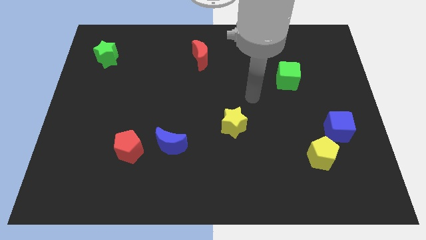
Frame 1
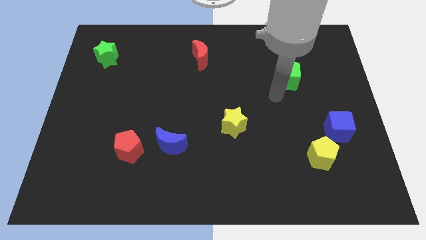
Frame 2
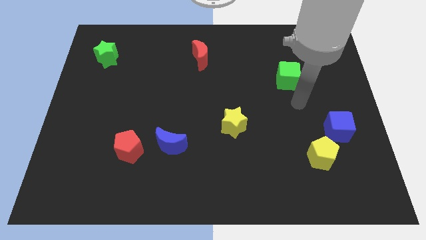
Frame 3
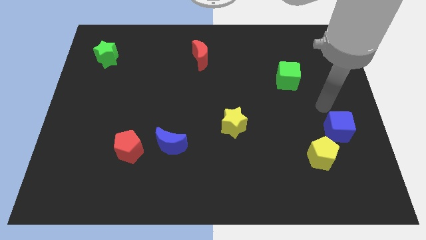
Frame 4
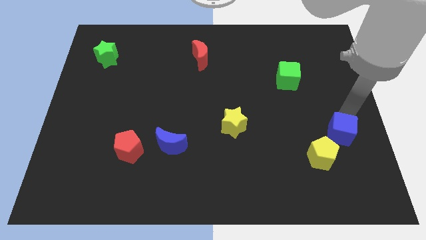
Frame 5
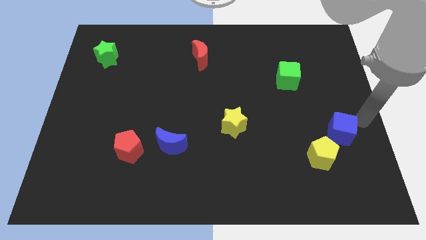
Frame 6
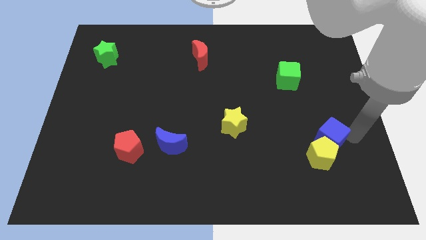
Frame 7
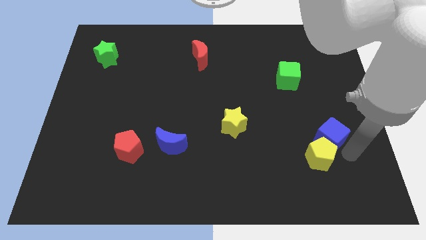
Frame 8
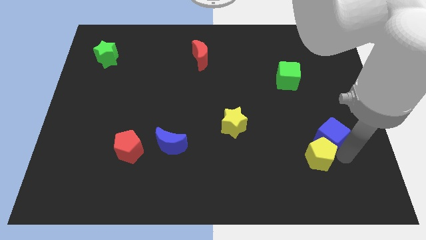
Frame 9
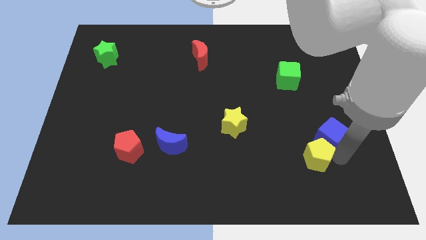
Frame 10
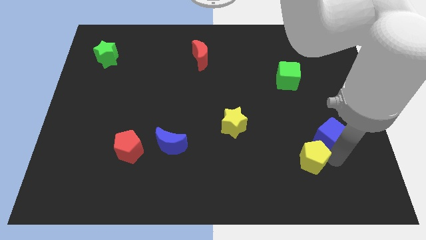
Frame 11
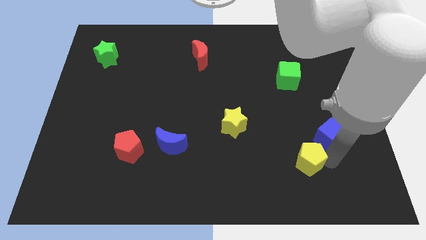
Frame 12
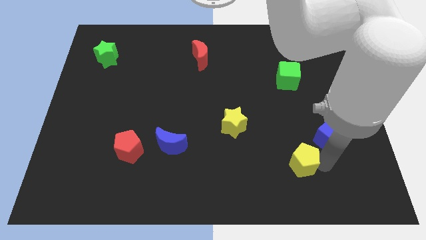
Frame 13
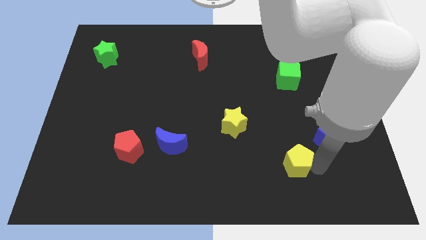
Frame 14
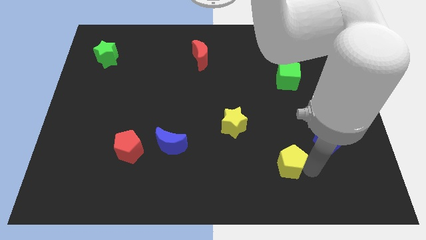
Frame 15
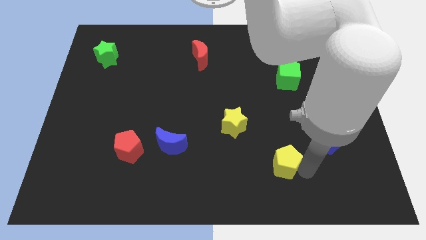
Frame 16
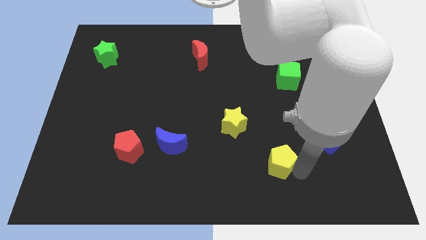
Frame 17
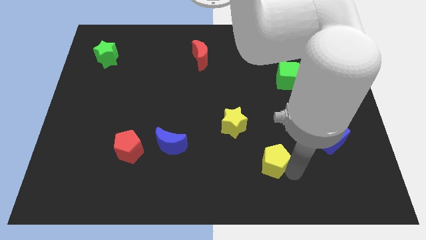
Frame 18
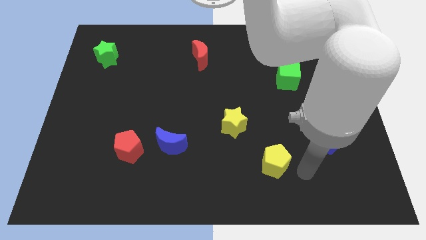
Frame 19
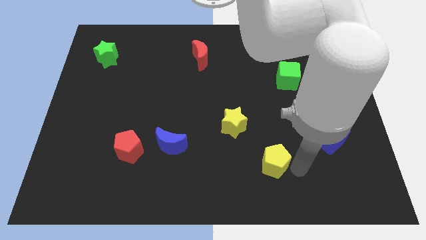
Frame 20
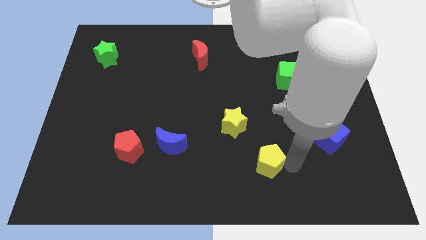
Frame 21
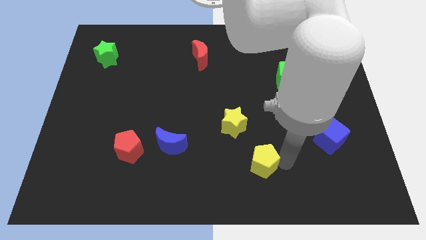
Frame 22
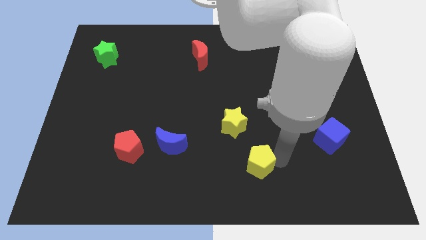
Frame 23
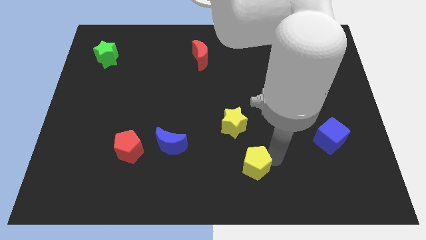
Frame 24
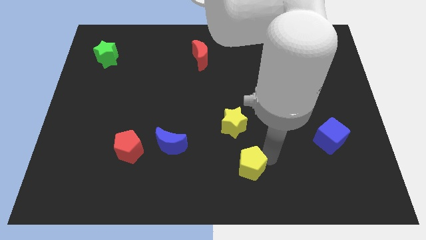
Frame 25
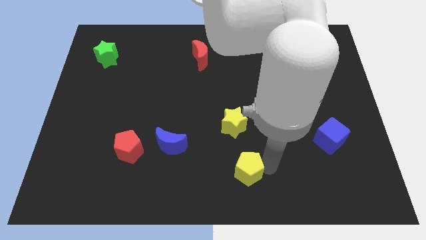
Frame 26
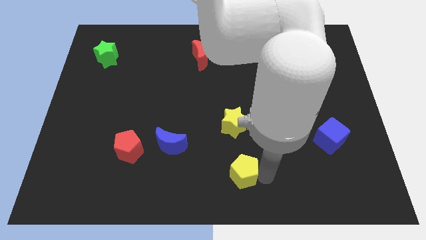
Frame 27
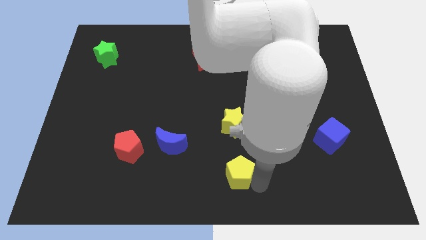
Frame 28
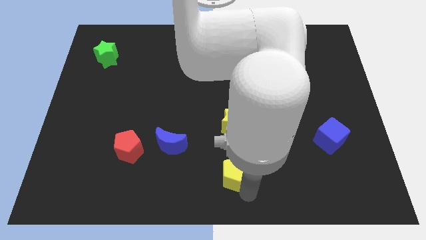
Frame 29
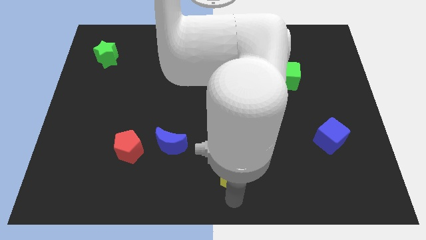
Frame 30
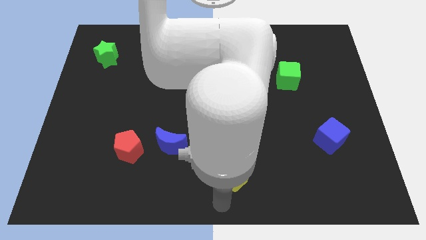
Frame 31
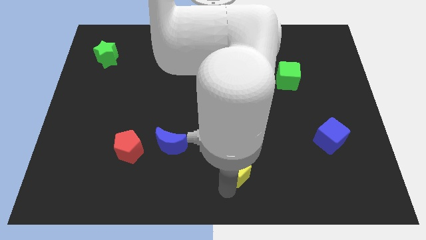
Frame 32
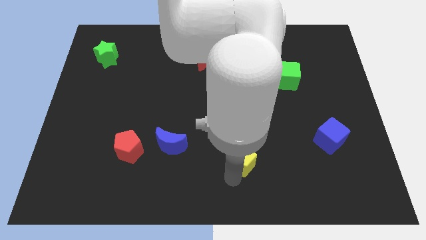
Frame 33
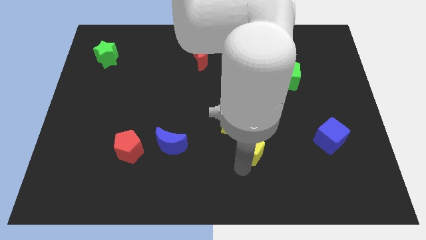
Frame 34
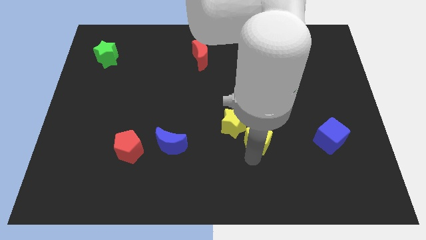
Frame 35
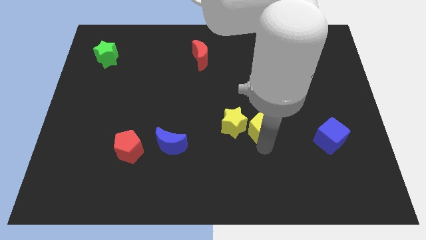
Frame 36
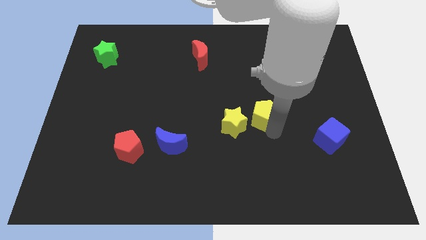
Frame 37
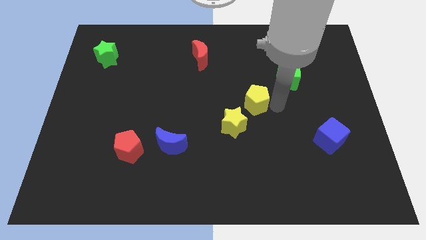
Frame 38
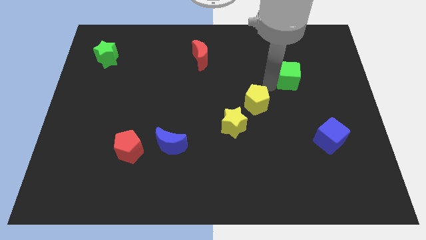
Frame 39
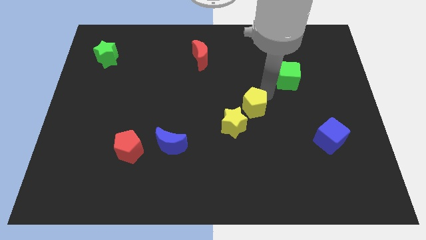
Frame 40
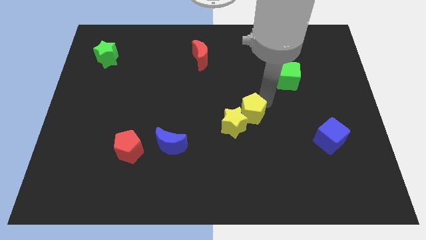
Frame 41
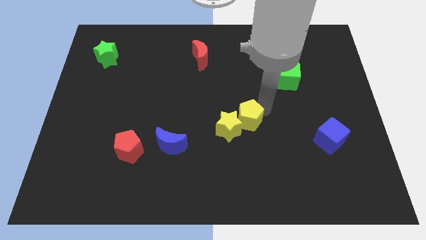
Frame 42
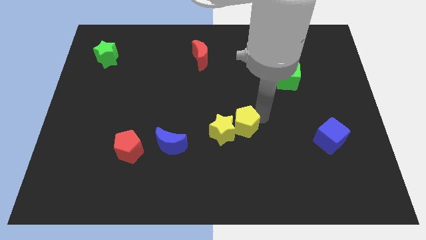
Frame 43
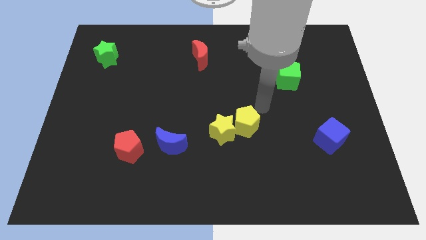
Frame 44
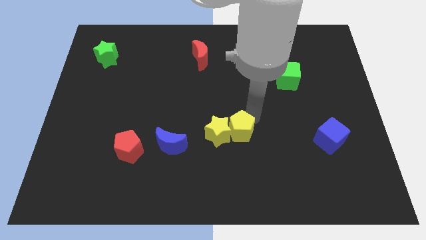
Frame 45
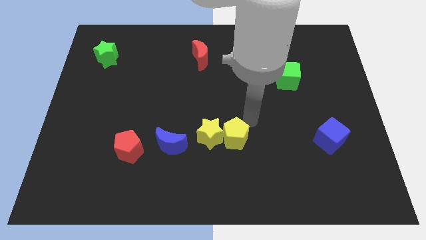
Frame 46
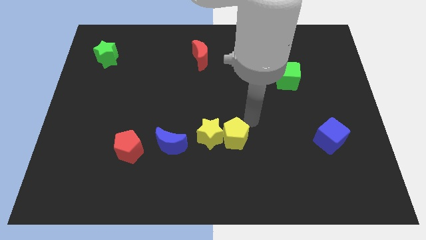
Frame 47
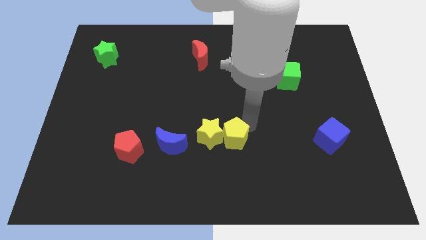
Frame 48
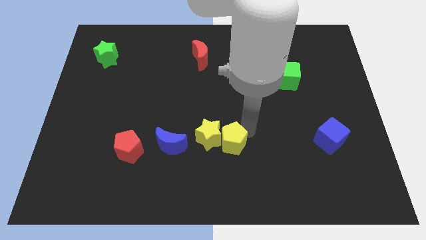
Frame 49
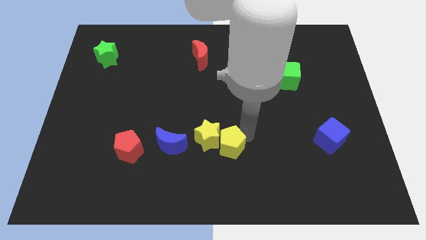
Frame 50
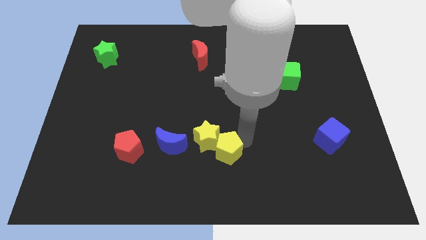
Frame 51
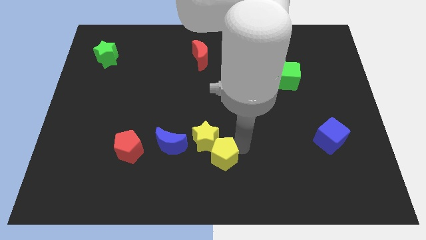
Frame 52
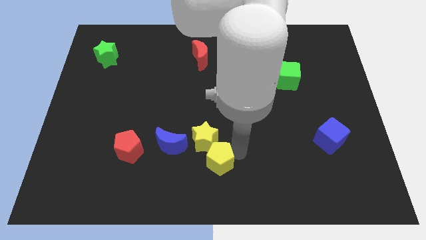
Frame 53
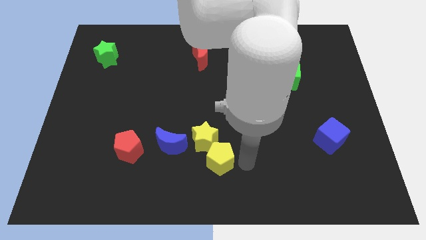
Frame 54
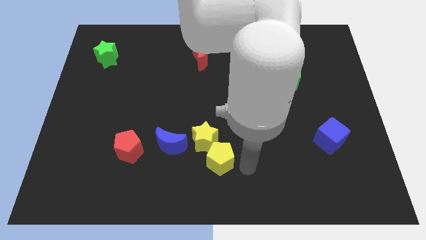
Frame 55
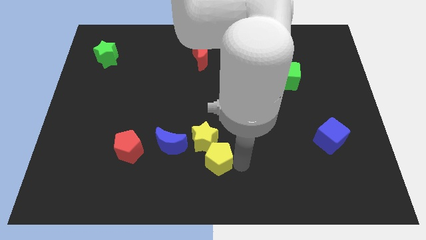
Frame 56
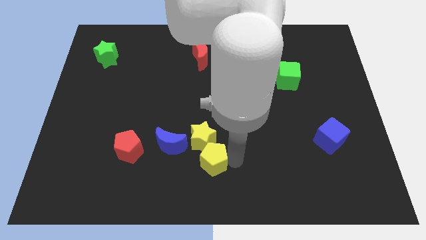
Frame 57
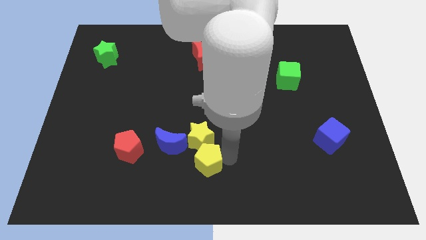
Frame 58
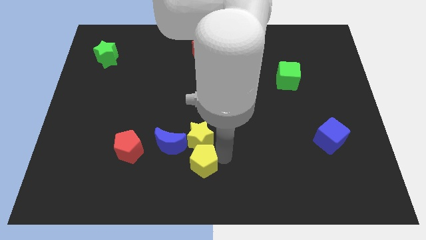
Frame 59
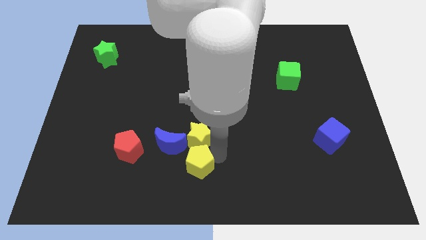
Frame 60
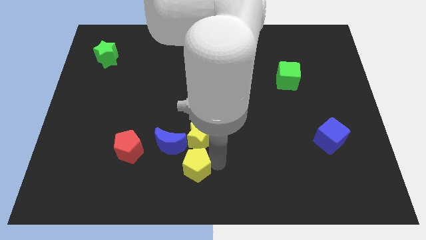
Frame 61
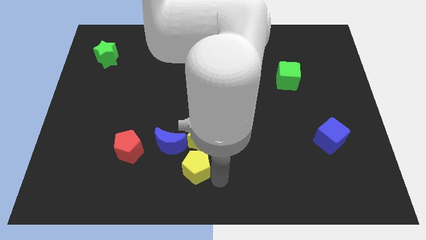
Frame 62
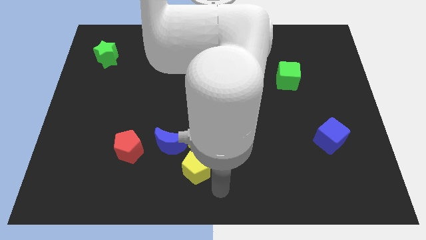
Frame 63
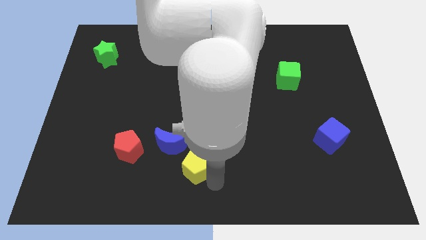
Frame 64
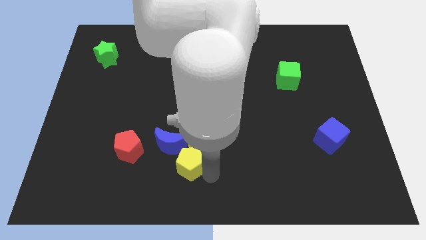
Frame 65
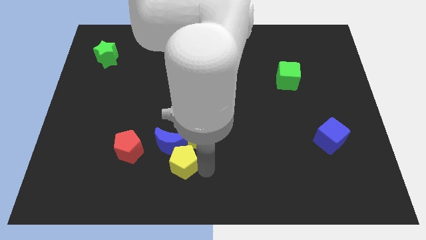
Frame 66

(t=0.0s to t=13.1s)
push the yellow pentagon next to the blue moon
